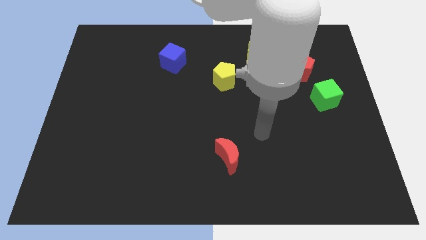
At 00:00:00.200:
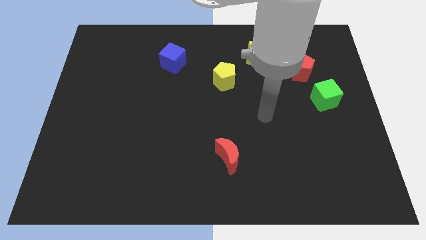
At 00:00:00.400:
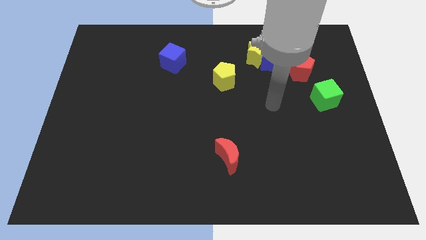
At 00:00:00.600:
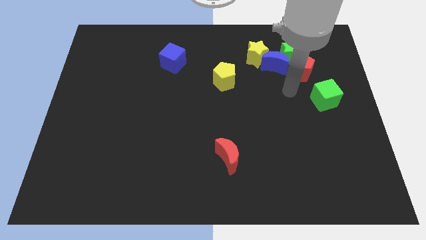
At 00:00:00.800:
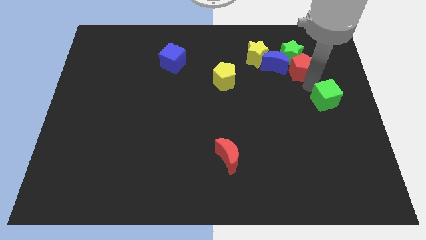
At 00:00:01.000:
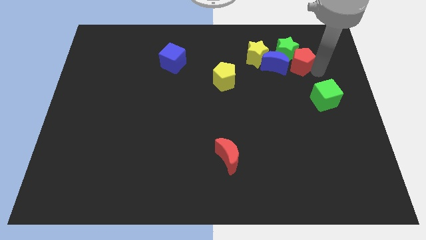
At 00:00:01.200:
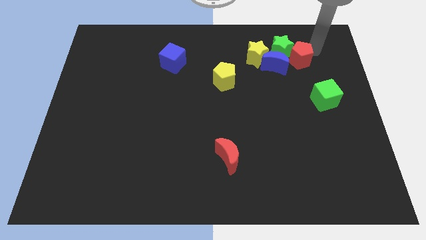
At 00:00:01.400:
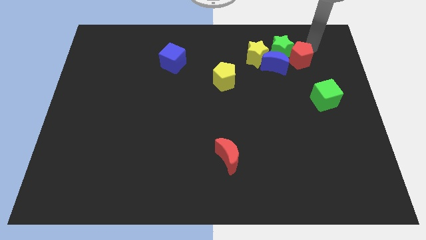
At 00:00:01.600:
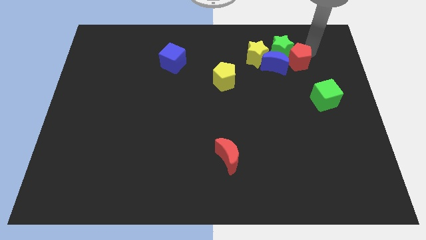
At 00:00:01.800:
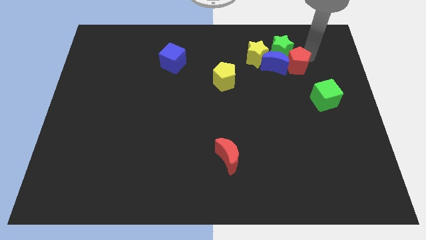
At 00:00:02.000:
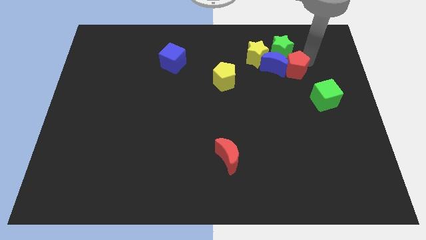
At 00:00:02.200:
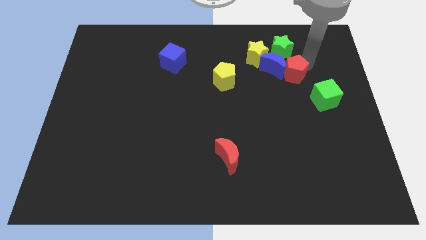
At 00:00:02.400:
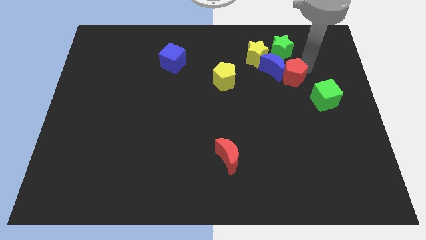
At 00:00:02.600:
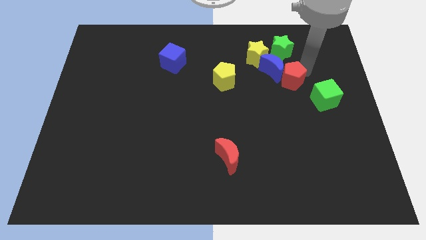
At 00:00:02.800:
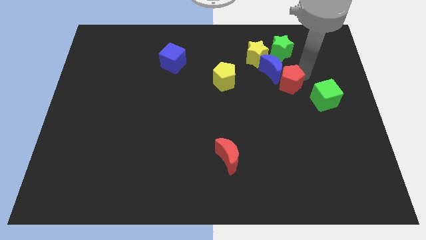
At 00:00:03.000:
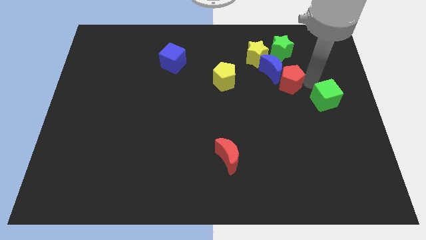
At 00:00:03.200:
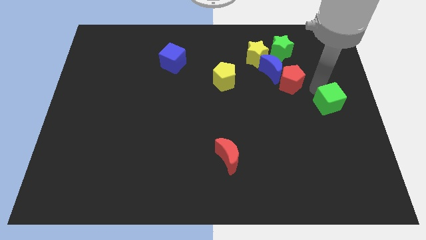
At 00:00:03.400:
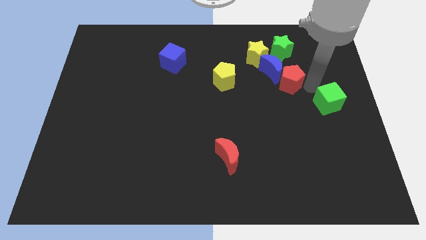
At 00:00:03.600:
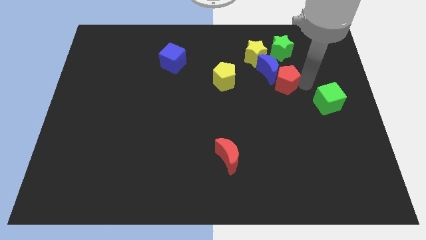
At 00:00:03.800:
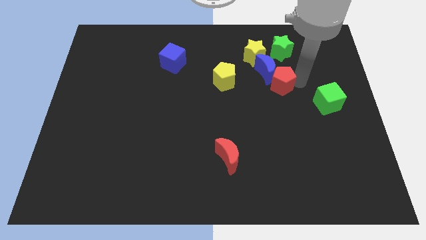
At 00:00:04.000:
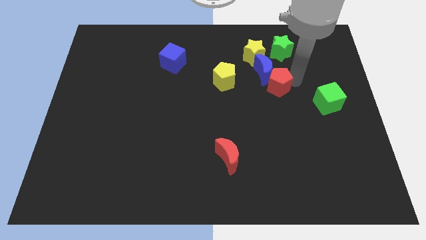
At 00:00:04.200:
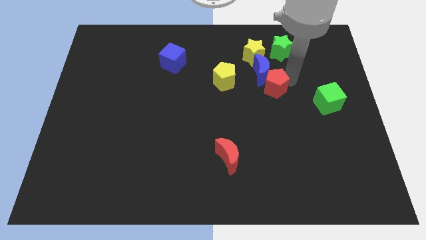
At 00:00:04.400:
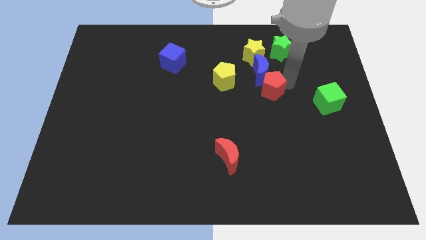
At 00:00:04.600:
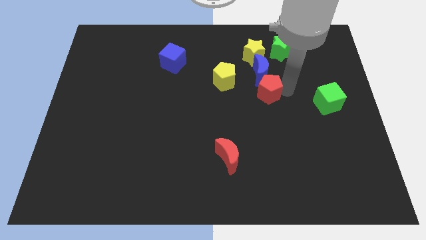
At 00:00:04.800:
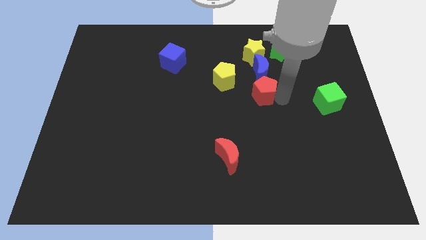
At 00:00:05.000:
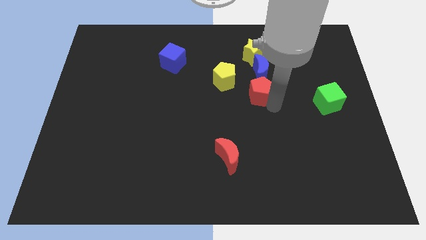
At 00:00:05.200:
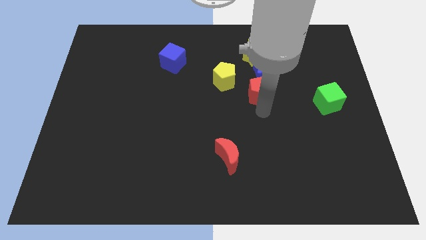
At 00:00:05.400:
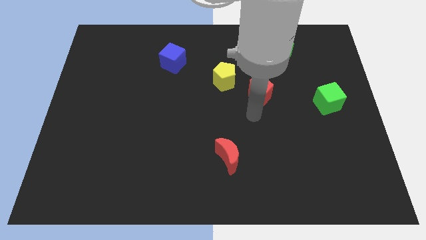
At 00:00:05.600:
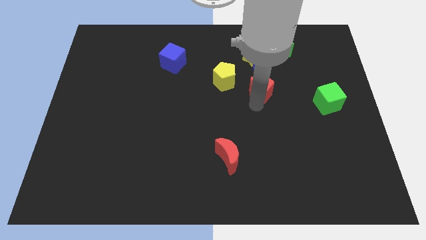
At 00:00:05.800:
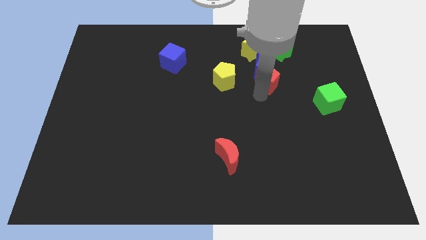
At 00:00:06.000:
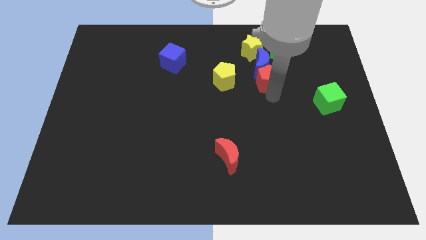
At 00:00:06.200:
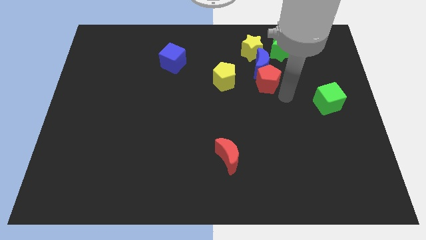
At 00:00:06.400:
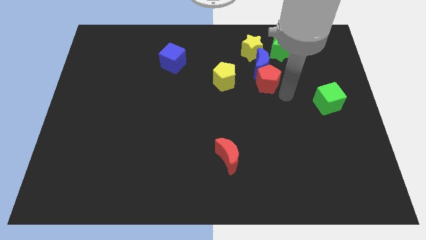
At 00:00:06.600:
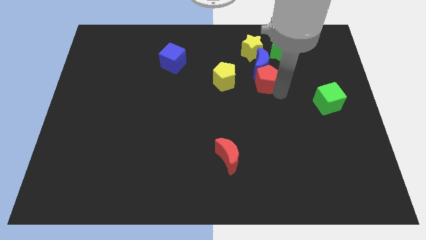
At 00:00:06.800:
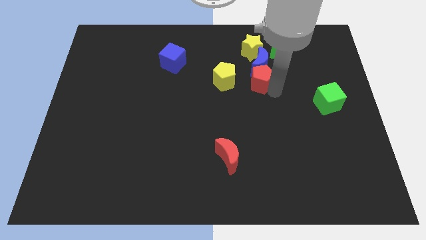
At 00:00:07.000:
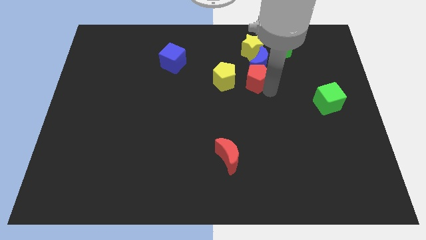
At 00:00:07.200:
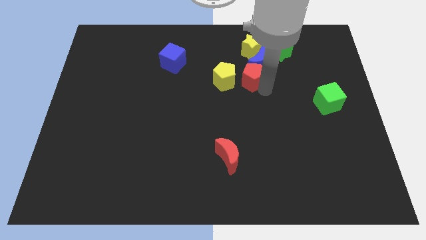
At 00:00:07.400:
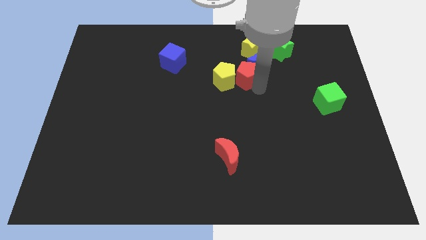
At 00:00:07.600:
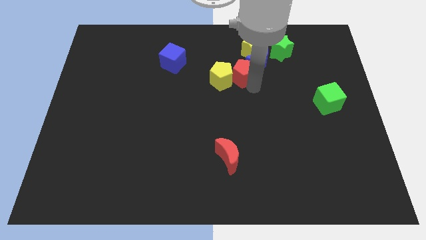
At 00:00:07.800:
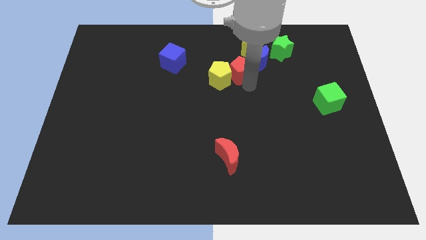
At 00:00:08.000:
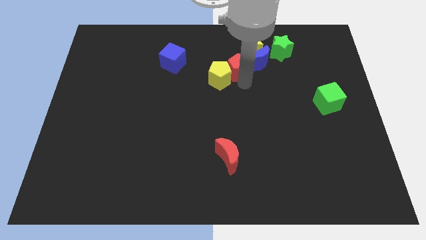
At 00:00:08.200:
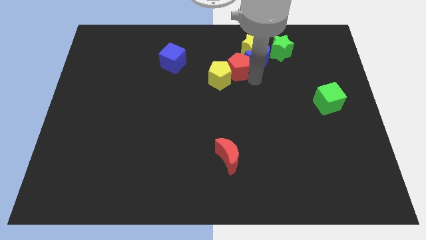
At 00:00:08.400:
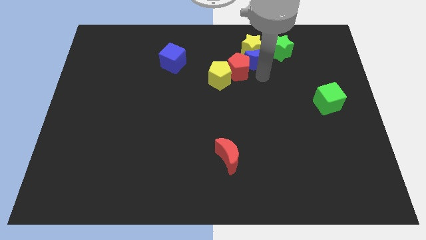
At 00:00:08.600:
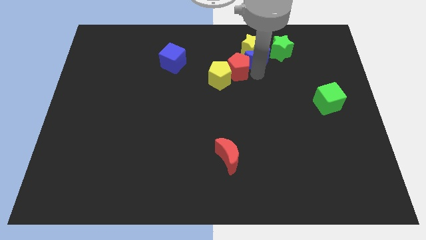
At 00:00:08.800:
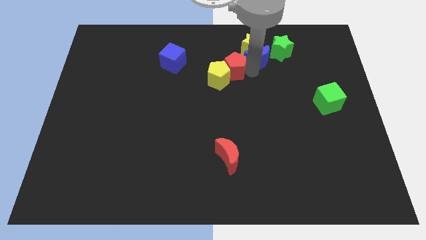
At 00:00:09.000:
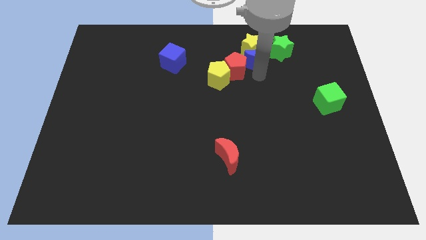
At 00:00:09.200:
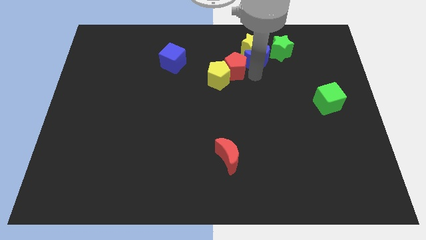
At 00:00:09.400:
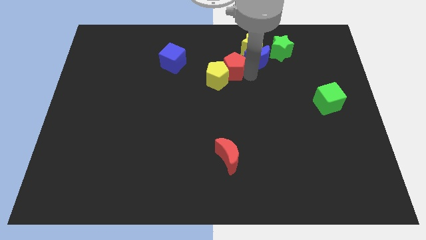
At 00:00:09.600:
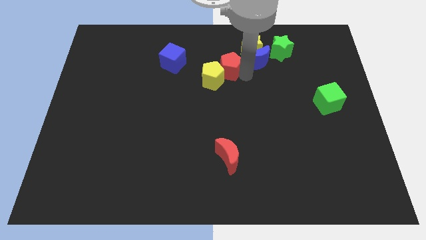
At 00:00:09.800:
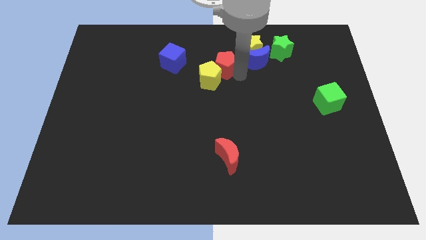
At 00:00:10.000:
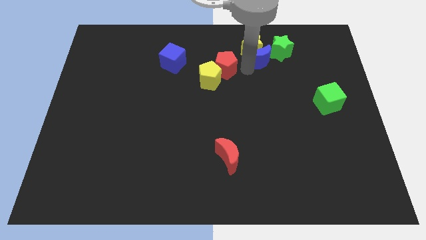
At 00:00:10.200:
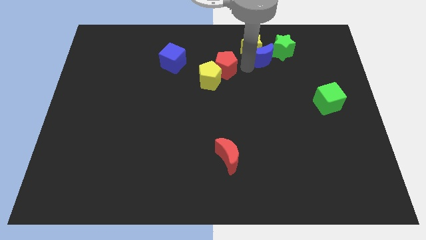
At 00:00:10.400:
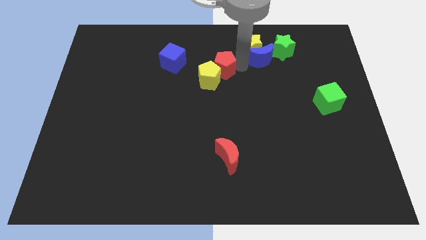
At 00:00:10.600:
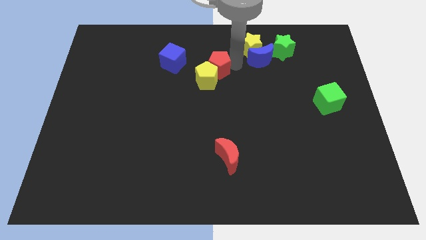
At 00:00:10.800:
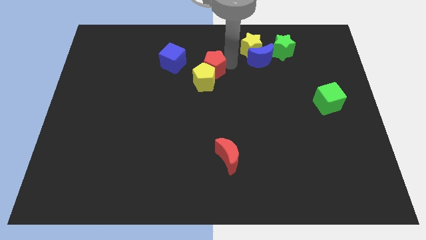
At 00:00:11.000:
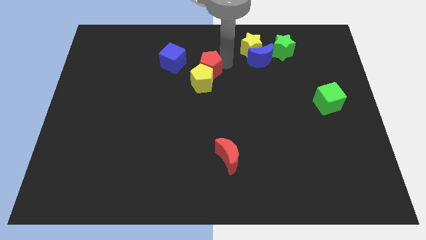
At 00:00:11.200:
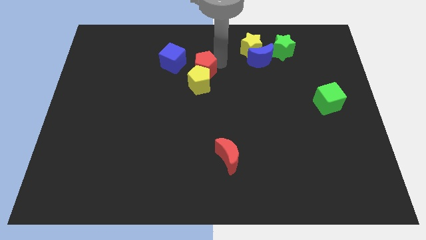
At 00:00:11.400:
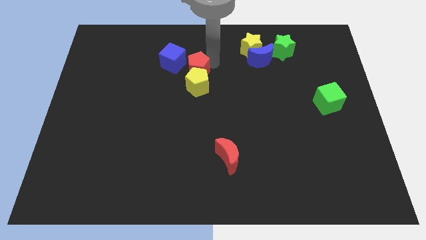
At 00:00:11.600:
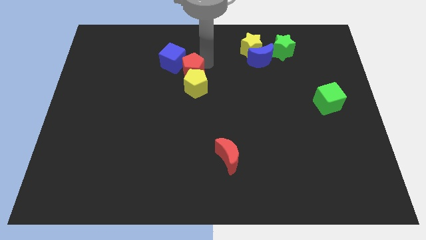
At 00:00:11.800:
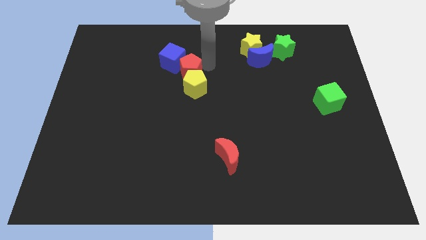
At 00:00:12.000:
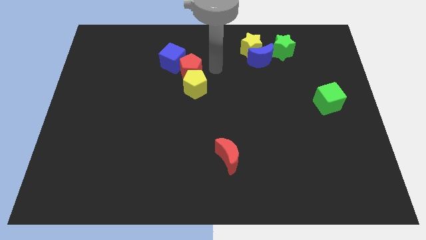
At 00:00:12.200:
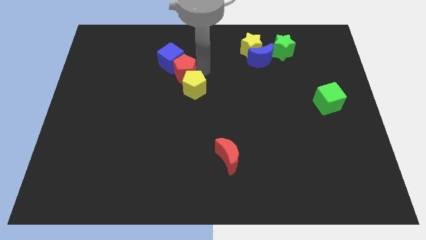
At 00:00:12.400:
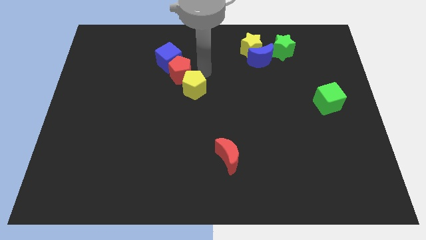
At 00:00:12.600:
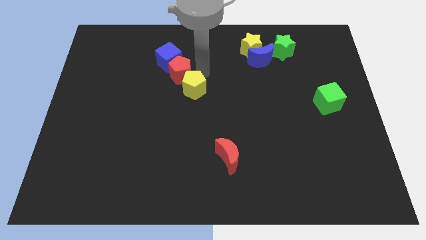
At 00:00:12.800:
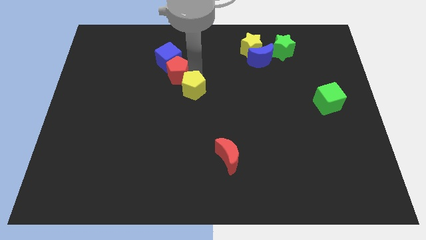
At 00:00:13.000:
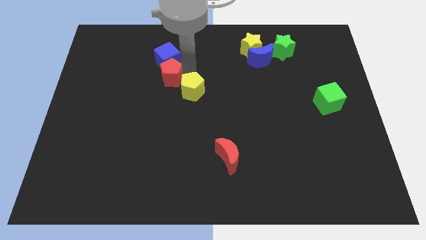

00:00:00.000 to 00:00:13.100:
push the red pentagon to the bottom left side of the blue cube

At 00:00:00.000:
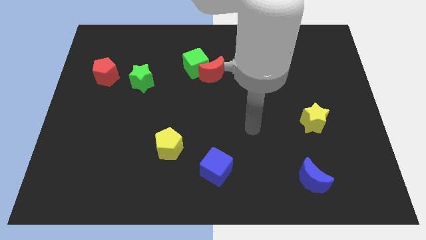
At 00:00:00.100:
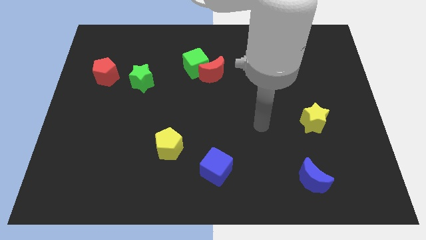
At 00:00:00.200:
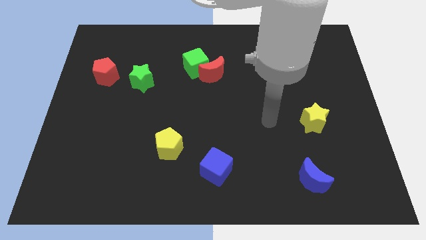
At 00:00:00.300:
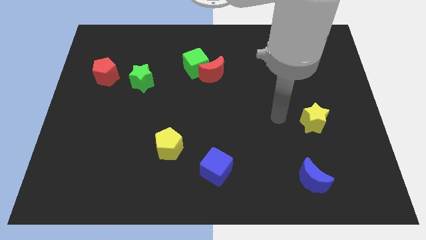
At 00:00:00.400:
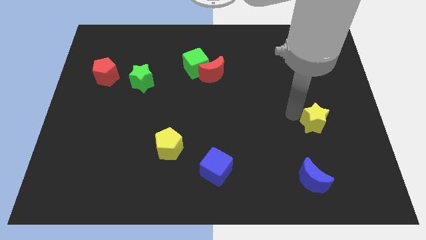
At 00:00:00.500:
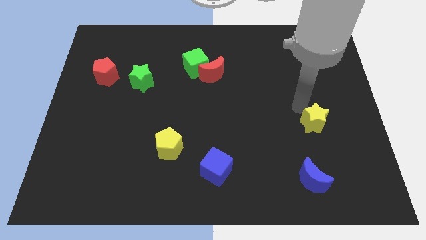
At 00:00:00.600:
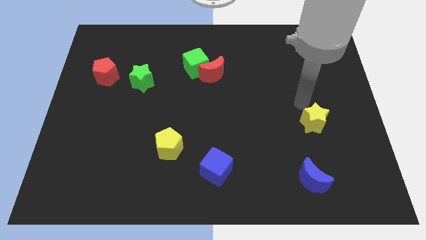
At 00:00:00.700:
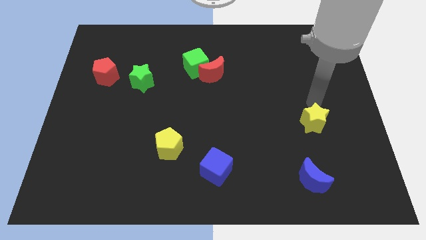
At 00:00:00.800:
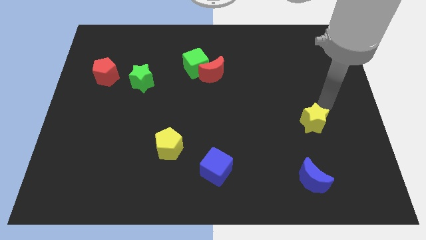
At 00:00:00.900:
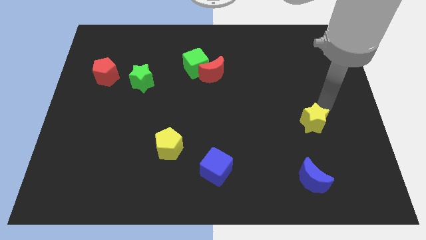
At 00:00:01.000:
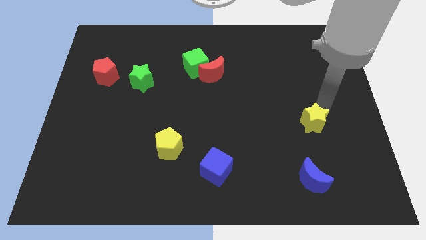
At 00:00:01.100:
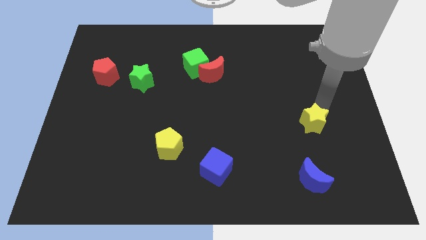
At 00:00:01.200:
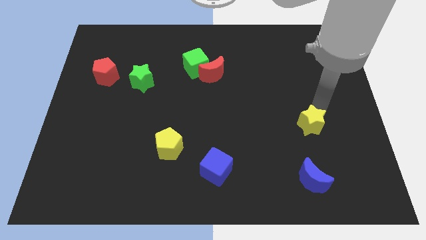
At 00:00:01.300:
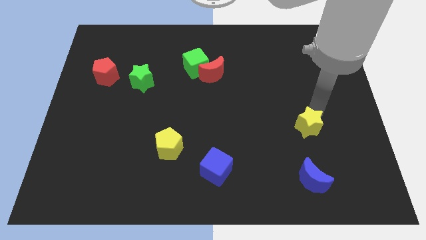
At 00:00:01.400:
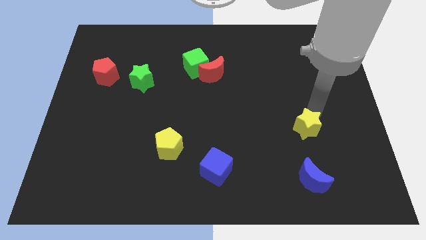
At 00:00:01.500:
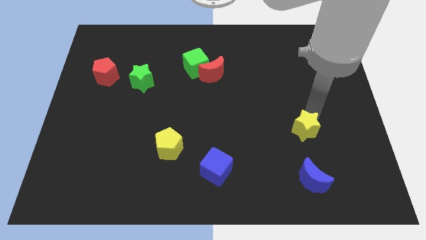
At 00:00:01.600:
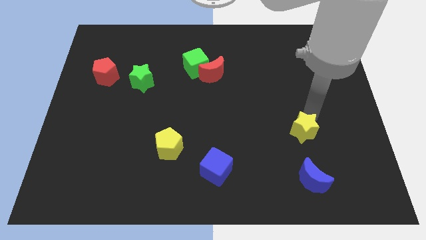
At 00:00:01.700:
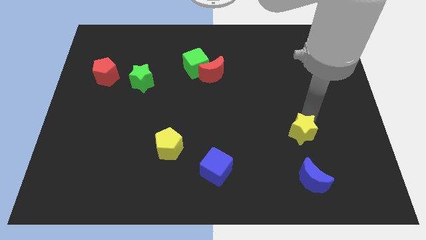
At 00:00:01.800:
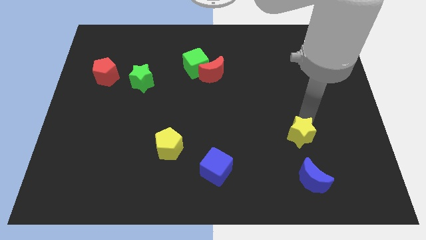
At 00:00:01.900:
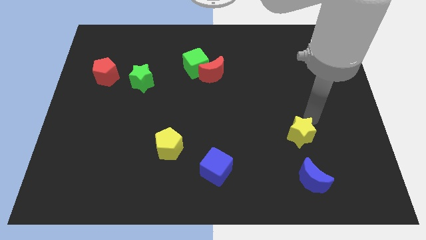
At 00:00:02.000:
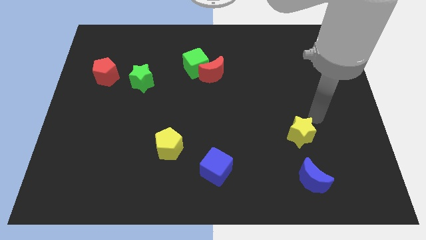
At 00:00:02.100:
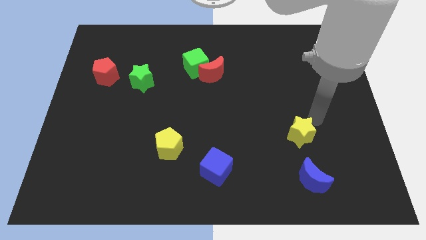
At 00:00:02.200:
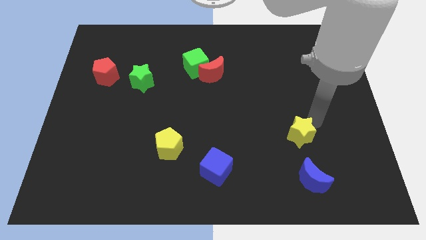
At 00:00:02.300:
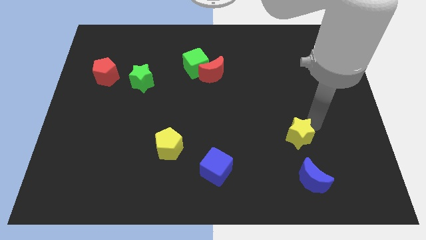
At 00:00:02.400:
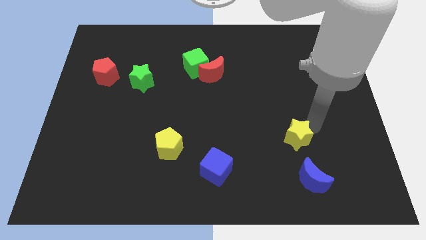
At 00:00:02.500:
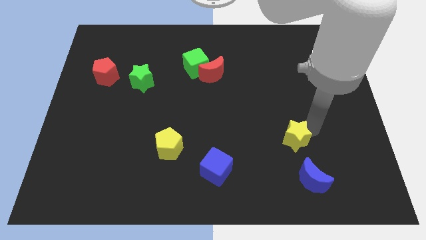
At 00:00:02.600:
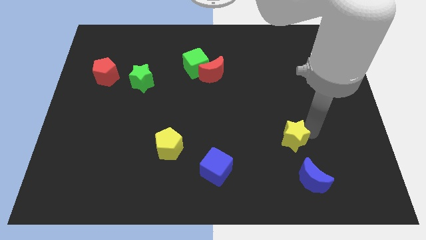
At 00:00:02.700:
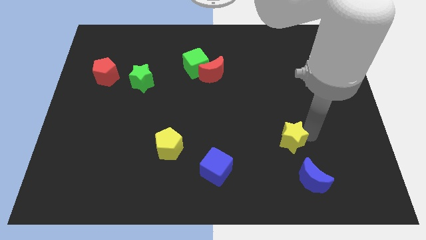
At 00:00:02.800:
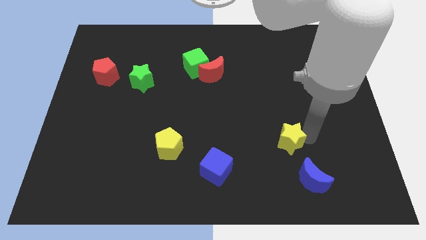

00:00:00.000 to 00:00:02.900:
slide the yellow star to the top left side of the blue moon
